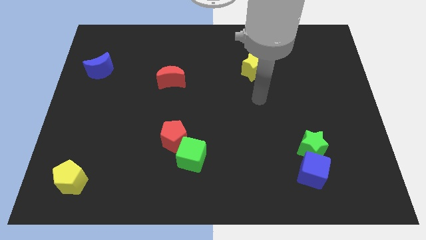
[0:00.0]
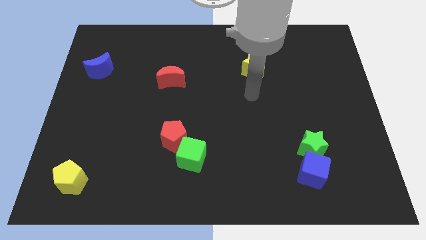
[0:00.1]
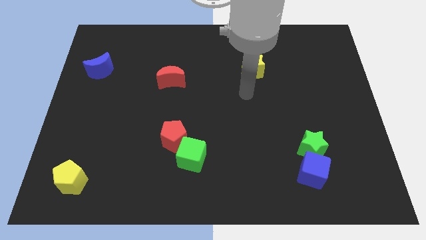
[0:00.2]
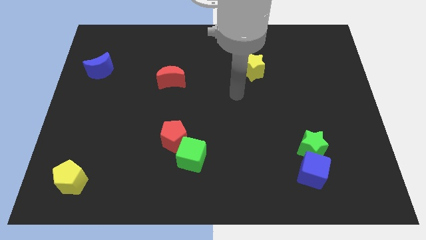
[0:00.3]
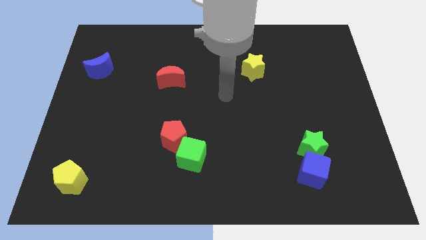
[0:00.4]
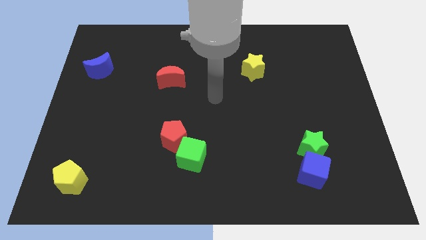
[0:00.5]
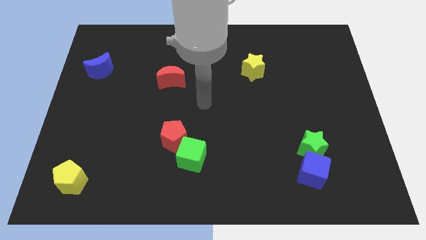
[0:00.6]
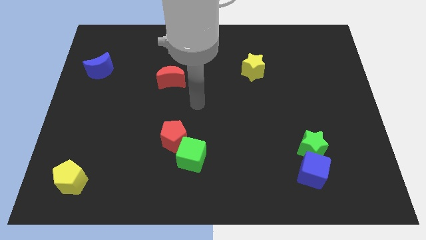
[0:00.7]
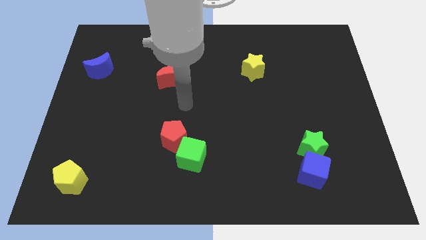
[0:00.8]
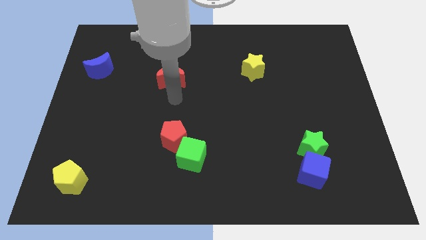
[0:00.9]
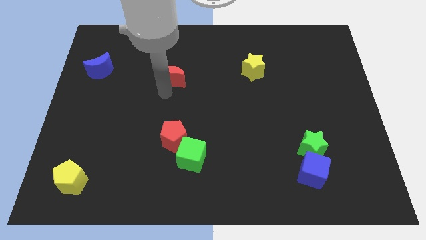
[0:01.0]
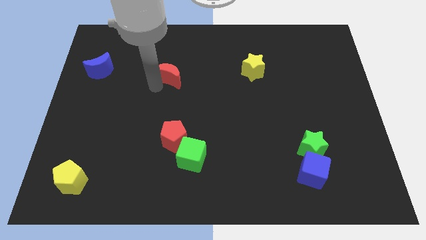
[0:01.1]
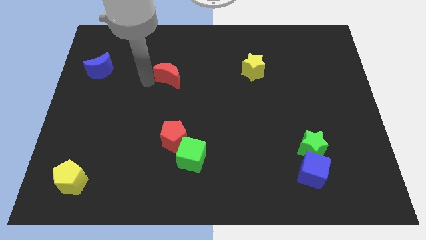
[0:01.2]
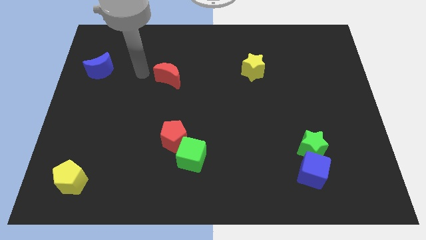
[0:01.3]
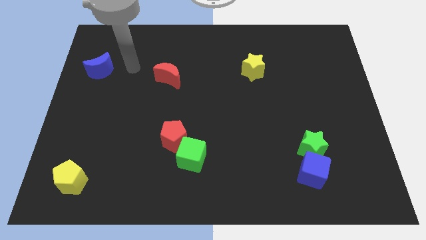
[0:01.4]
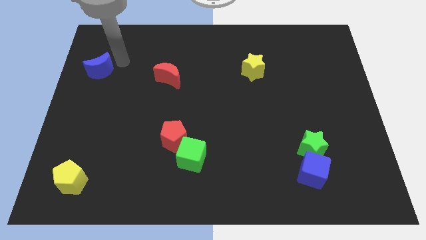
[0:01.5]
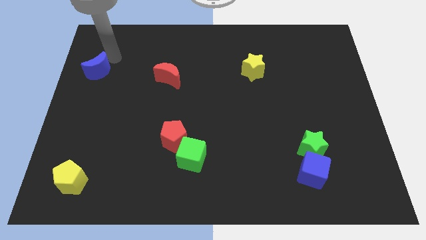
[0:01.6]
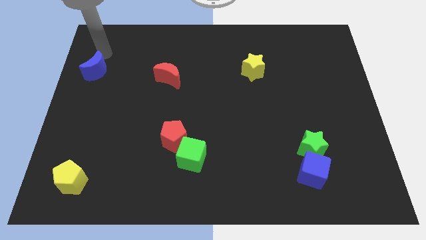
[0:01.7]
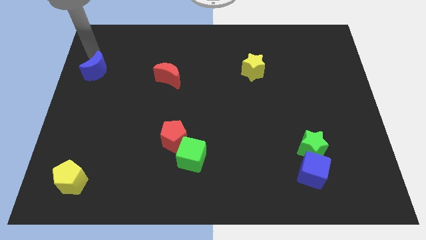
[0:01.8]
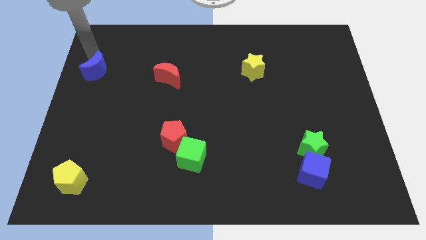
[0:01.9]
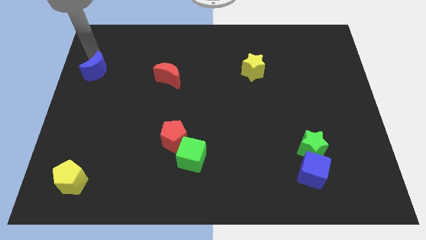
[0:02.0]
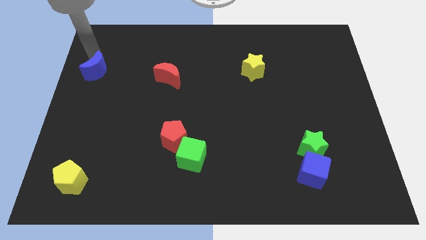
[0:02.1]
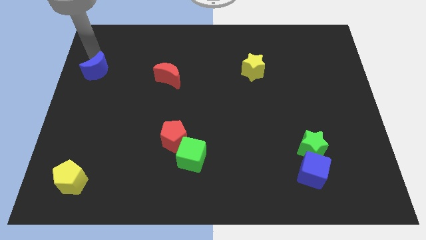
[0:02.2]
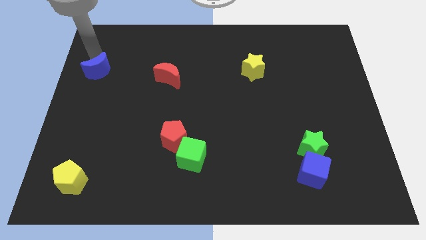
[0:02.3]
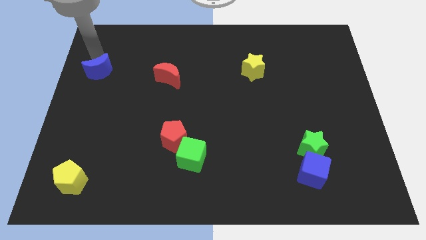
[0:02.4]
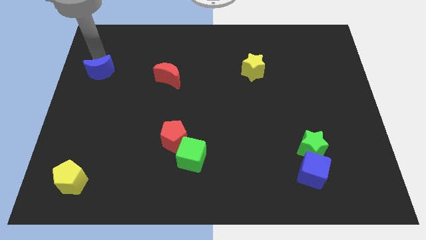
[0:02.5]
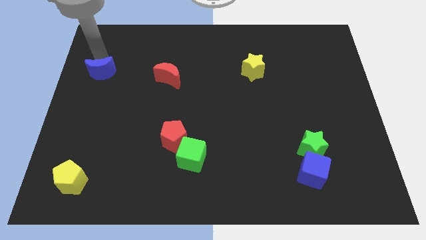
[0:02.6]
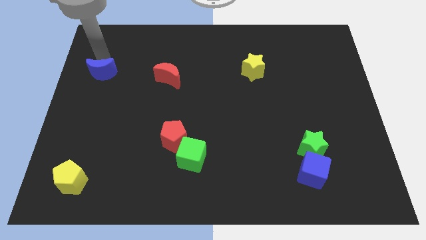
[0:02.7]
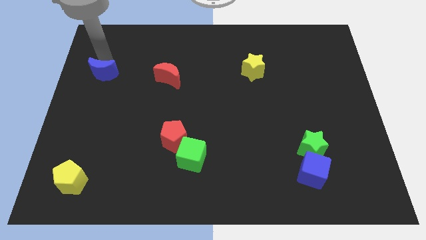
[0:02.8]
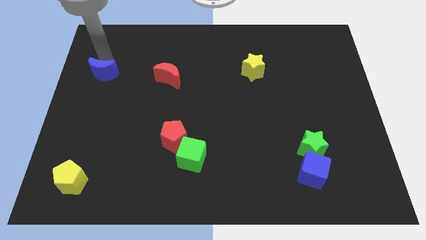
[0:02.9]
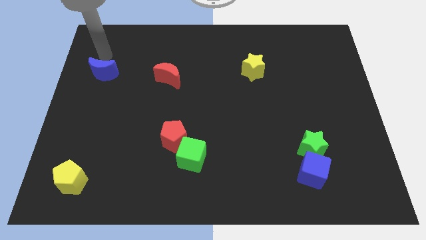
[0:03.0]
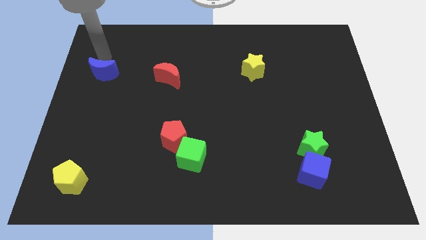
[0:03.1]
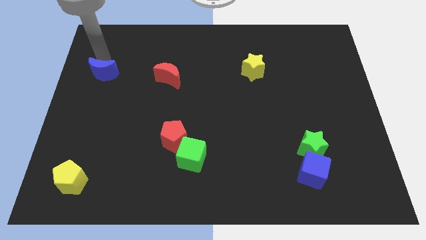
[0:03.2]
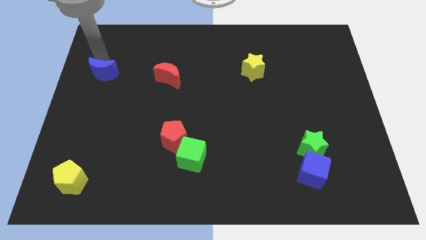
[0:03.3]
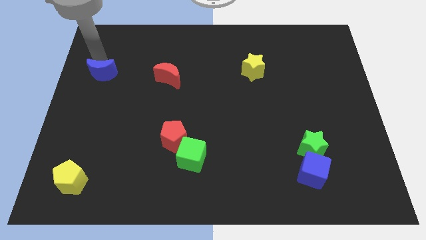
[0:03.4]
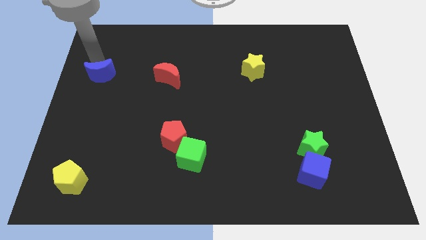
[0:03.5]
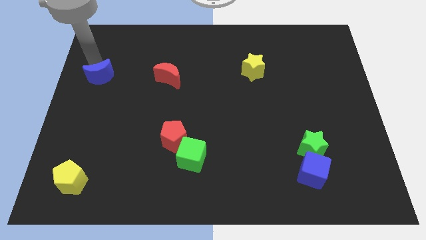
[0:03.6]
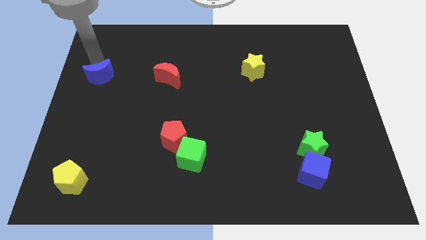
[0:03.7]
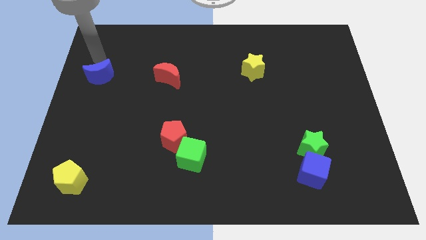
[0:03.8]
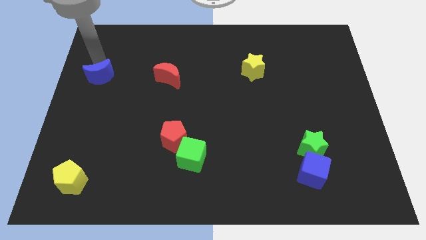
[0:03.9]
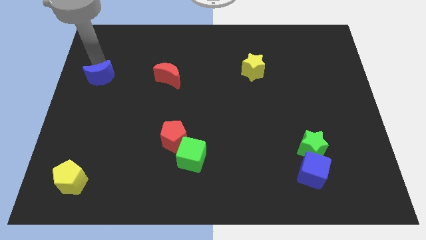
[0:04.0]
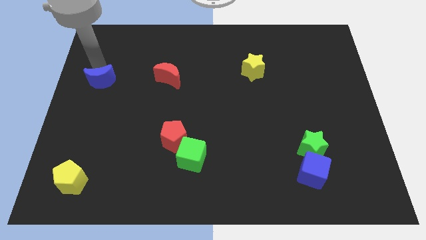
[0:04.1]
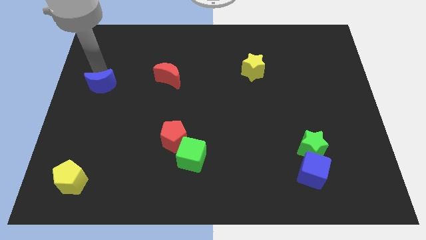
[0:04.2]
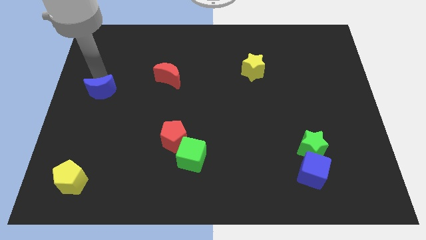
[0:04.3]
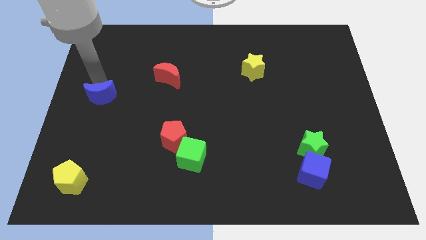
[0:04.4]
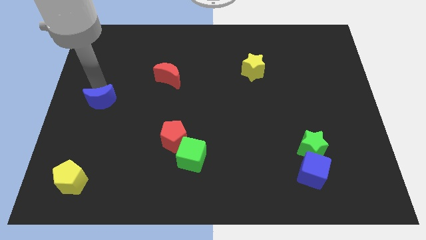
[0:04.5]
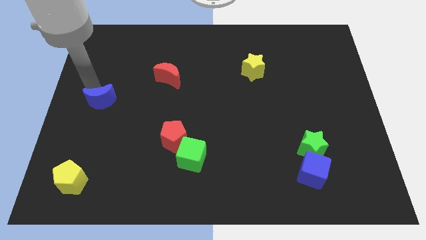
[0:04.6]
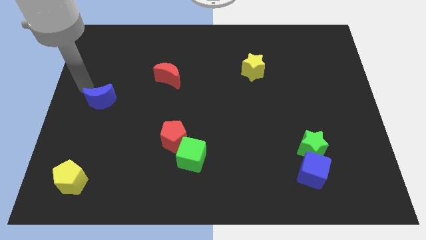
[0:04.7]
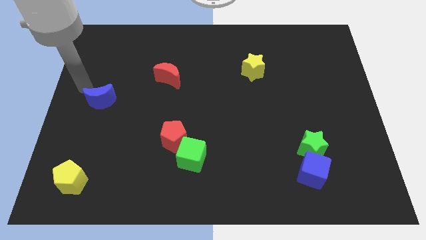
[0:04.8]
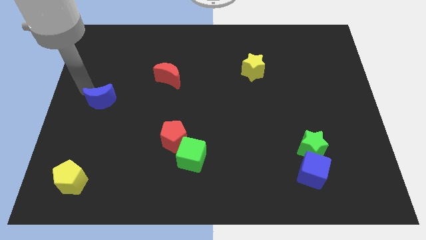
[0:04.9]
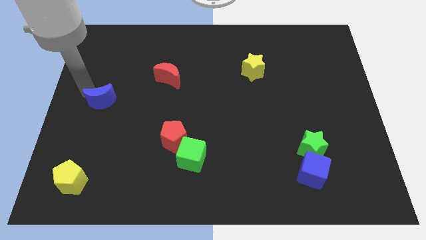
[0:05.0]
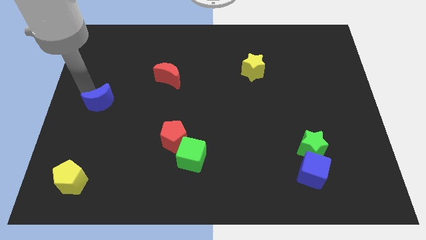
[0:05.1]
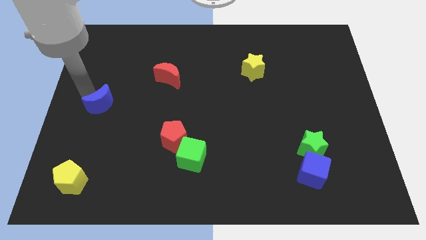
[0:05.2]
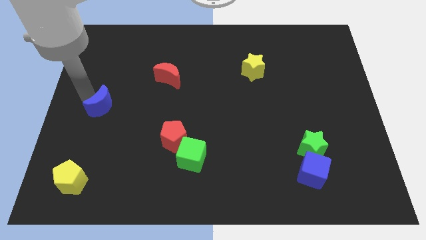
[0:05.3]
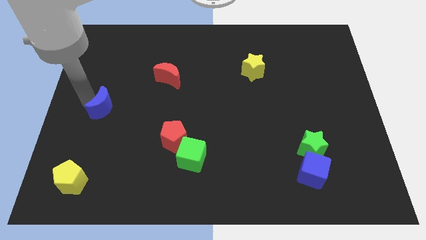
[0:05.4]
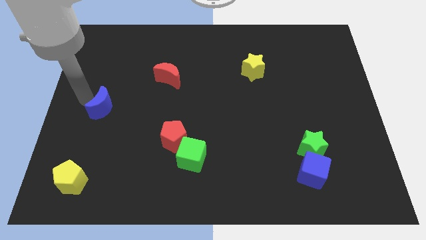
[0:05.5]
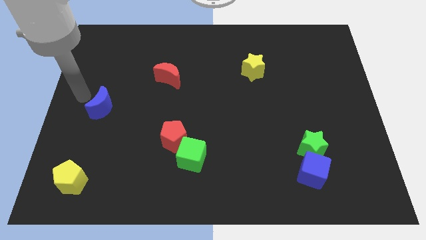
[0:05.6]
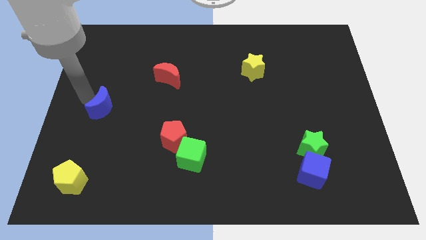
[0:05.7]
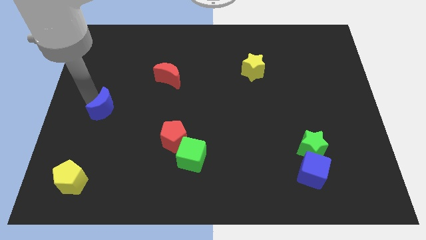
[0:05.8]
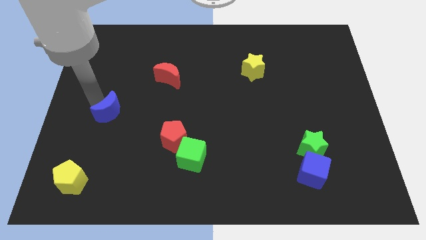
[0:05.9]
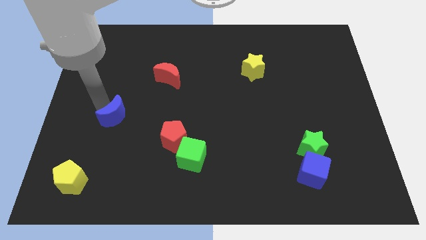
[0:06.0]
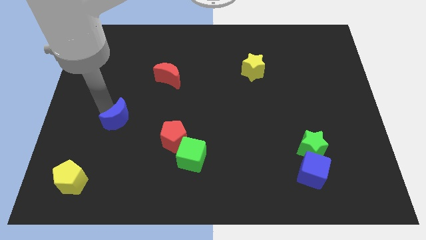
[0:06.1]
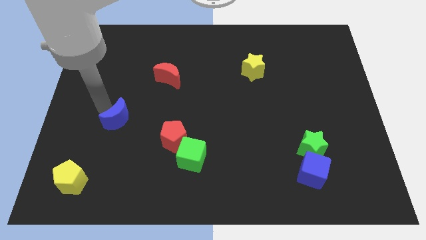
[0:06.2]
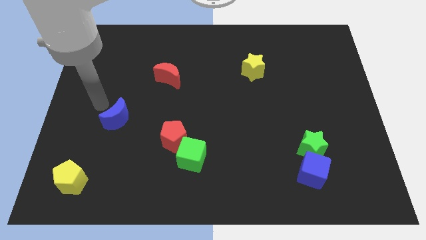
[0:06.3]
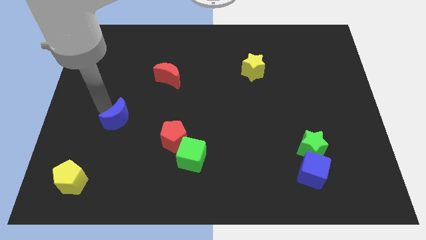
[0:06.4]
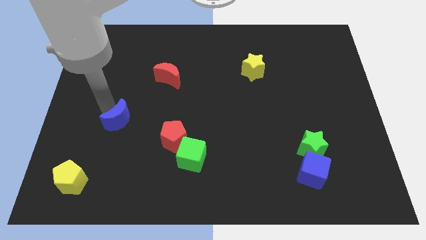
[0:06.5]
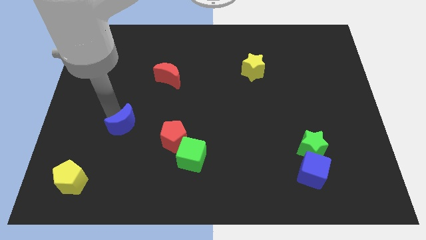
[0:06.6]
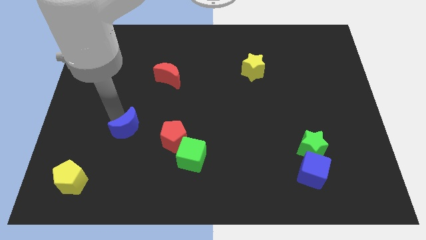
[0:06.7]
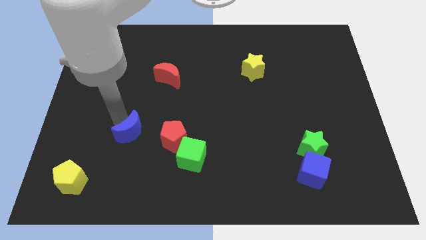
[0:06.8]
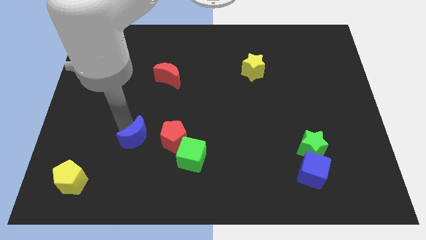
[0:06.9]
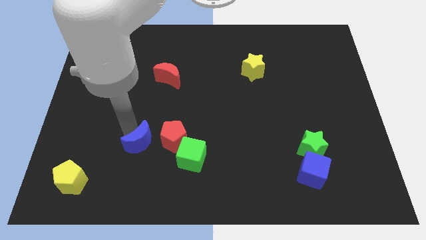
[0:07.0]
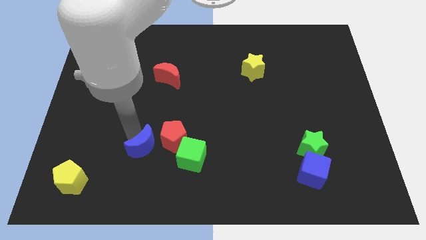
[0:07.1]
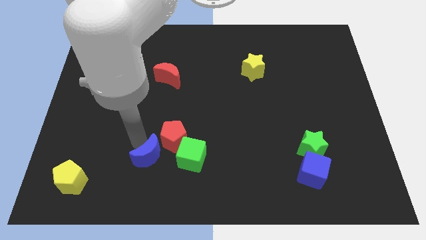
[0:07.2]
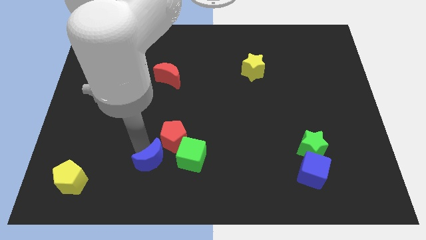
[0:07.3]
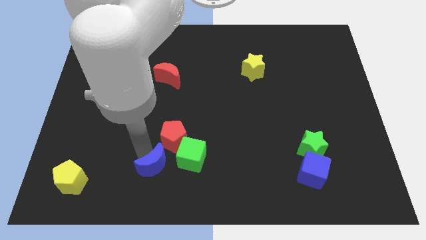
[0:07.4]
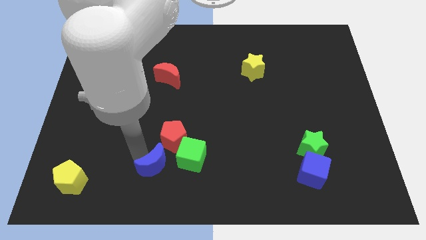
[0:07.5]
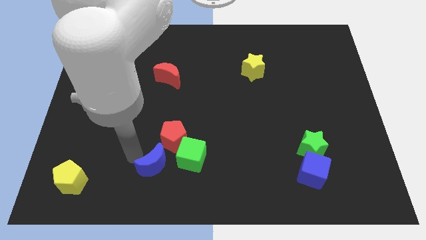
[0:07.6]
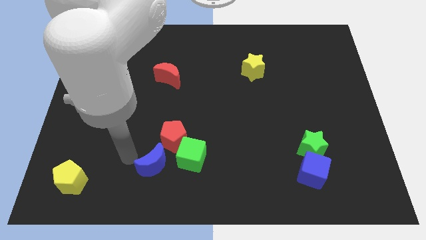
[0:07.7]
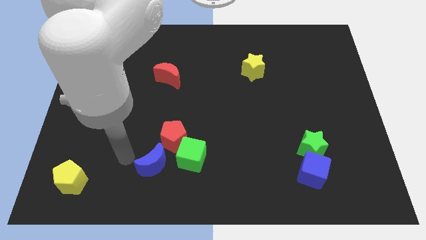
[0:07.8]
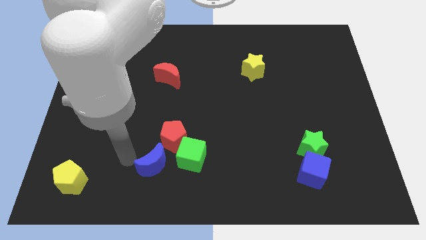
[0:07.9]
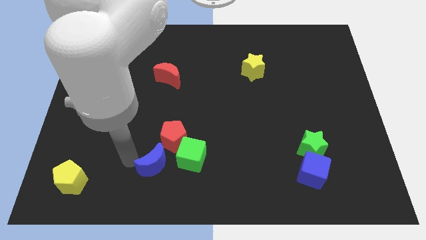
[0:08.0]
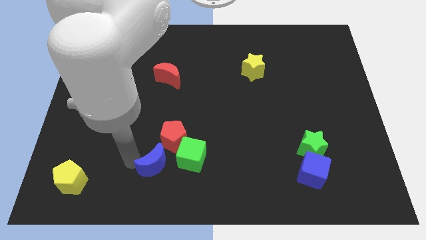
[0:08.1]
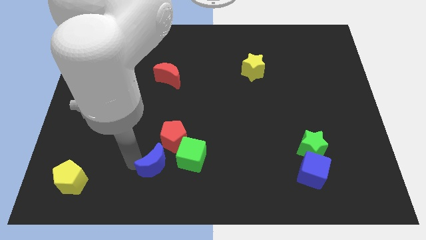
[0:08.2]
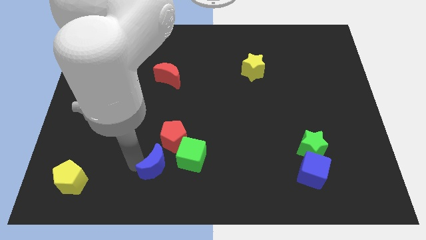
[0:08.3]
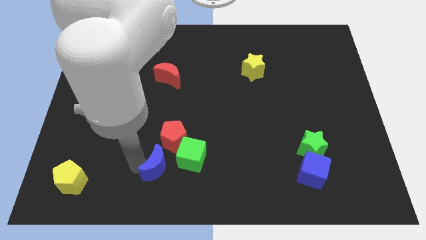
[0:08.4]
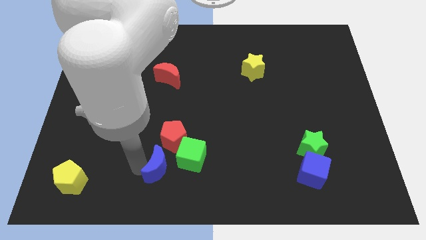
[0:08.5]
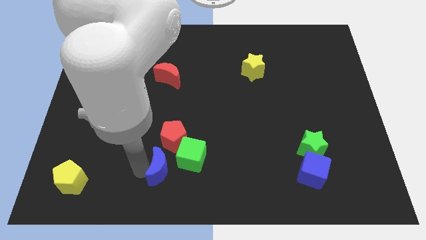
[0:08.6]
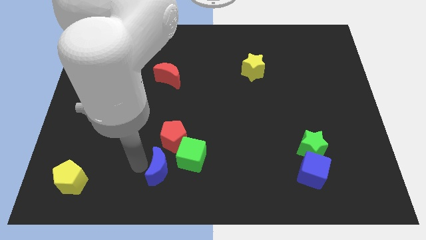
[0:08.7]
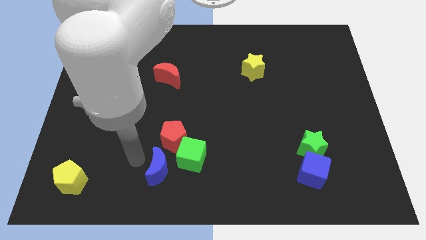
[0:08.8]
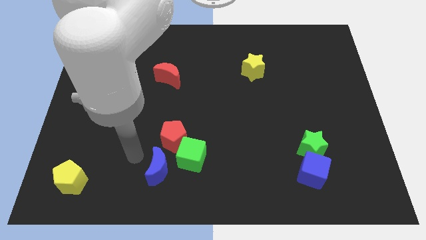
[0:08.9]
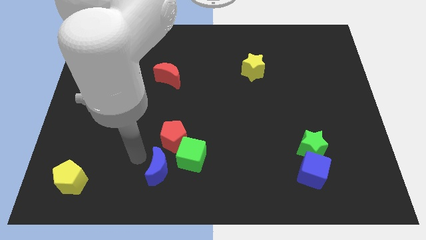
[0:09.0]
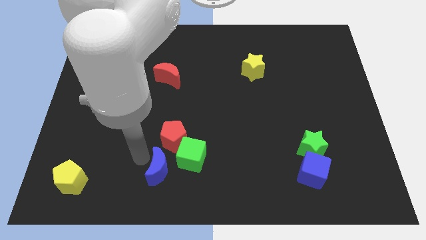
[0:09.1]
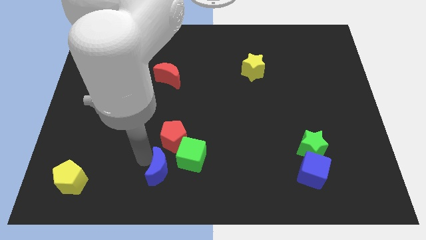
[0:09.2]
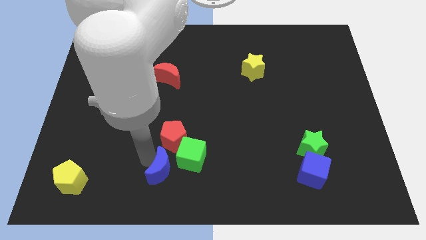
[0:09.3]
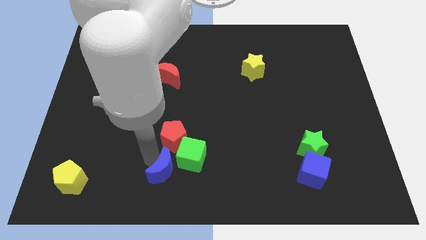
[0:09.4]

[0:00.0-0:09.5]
put the blue moon to the bottom side
